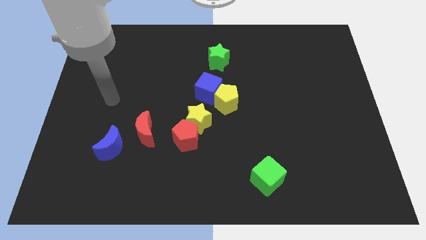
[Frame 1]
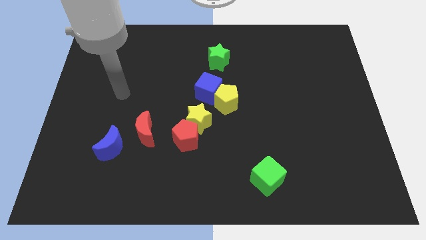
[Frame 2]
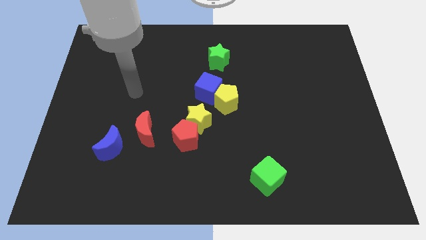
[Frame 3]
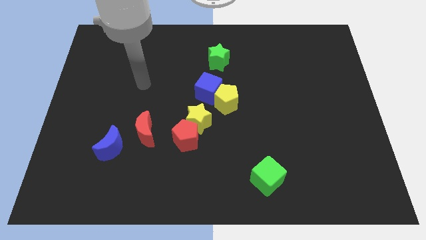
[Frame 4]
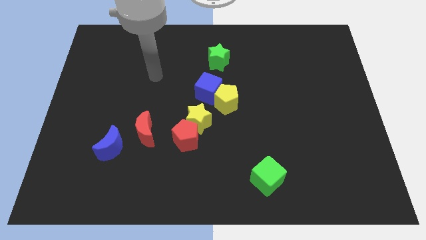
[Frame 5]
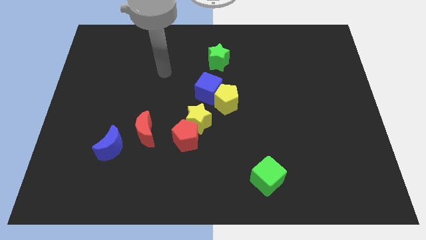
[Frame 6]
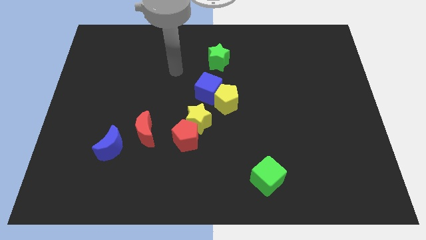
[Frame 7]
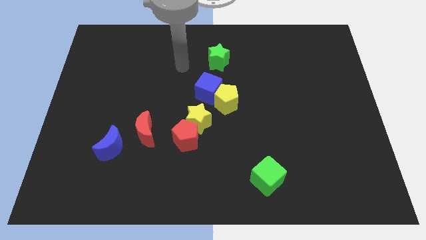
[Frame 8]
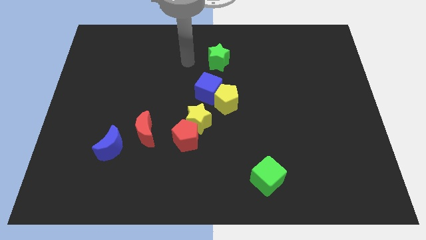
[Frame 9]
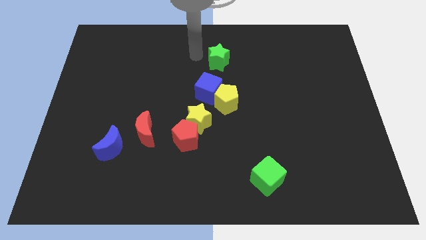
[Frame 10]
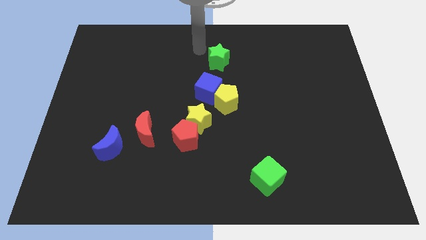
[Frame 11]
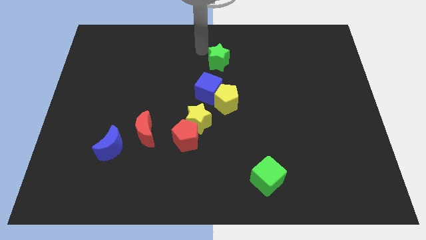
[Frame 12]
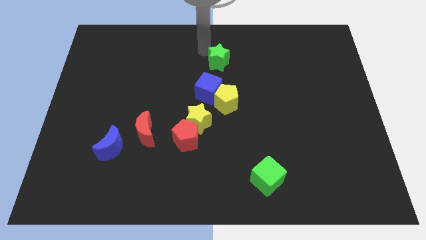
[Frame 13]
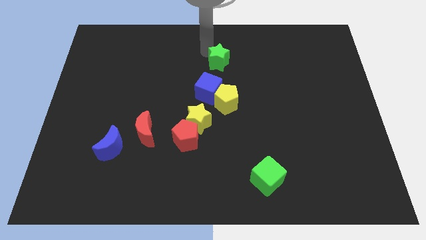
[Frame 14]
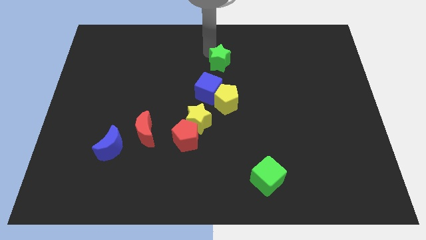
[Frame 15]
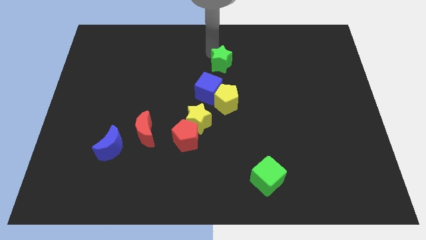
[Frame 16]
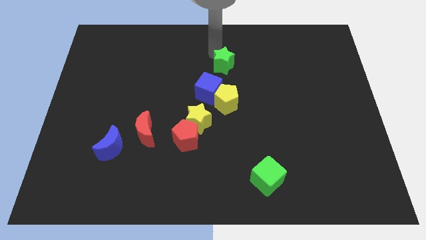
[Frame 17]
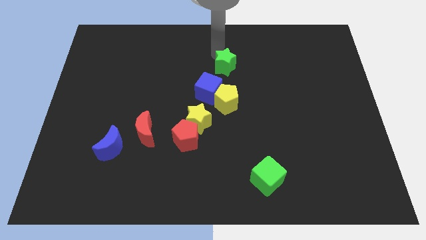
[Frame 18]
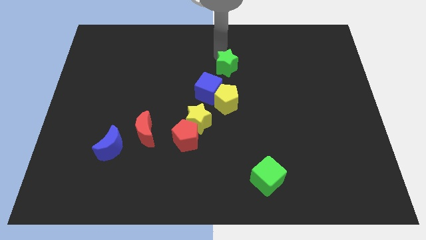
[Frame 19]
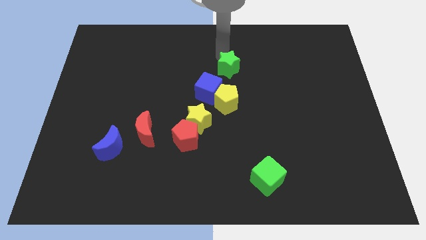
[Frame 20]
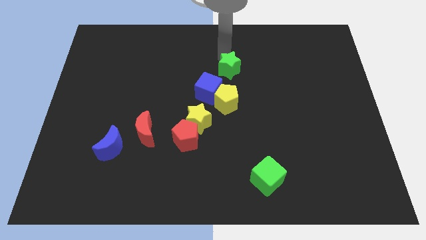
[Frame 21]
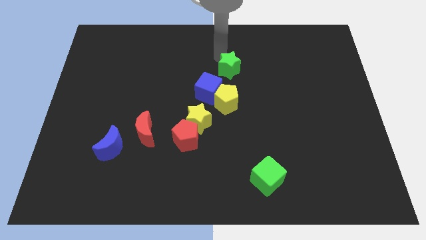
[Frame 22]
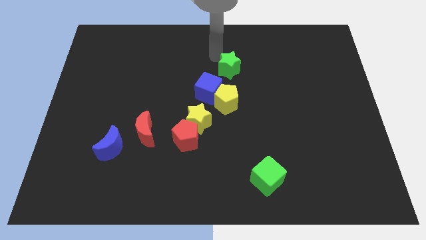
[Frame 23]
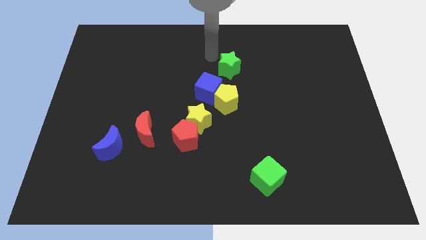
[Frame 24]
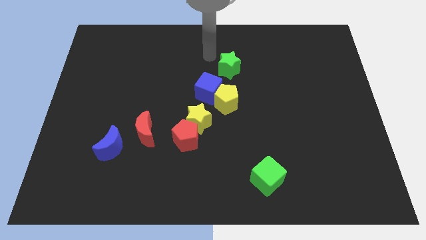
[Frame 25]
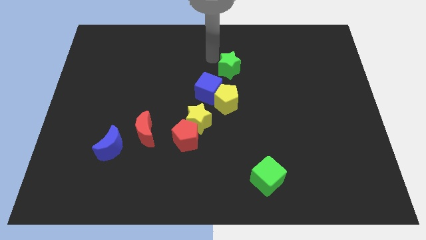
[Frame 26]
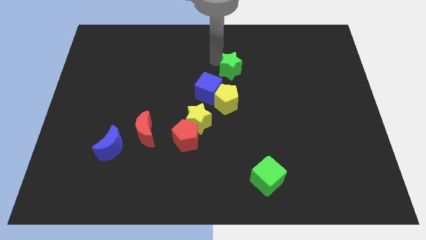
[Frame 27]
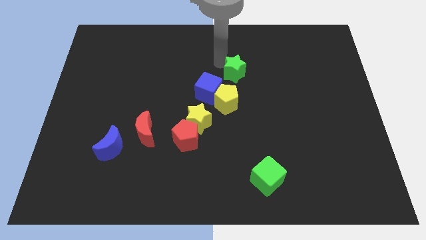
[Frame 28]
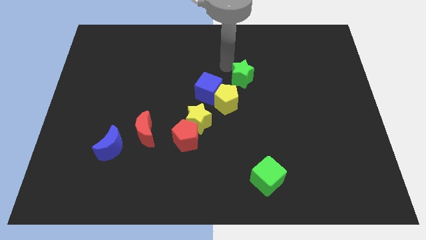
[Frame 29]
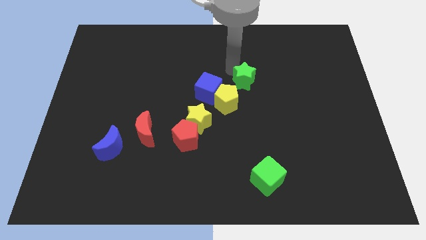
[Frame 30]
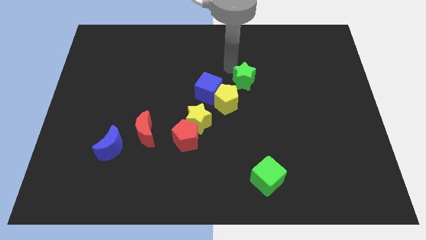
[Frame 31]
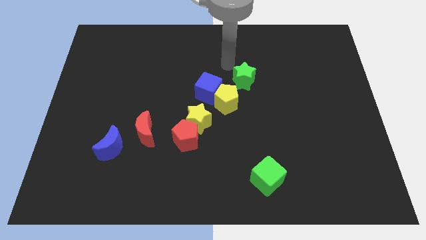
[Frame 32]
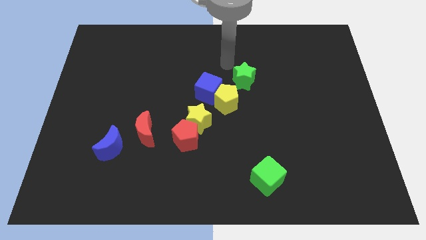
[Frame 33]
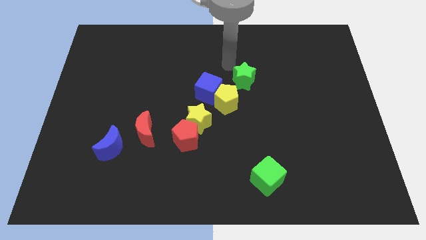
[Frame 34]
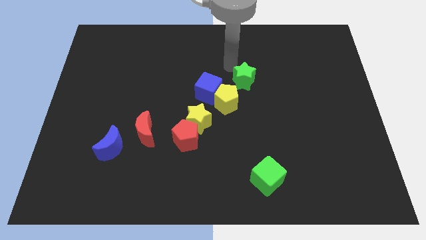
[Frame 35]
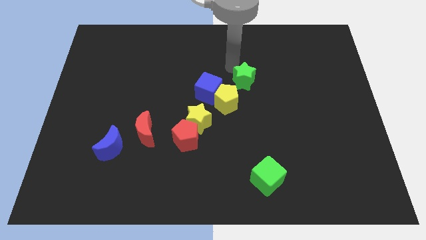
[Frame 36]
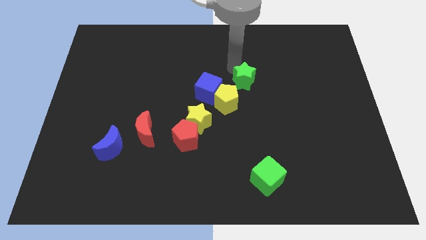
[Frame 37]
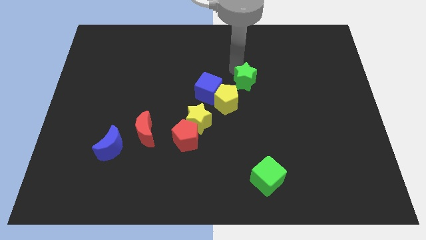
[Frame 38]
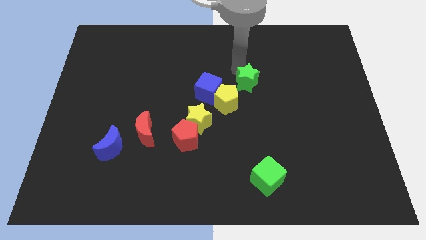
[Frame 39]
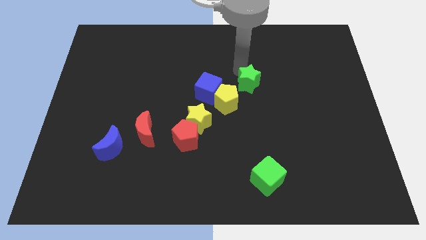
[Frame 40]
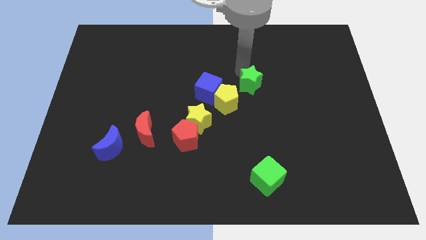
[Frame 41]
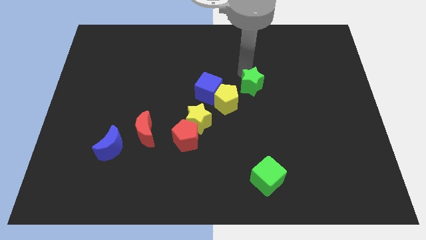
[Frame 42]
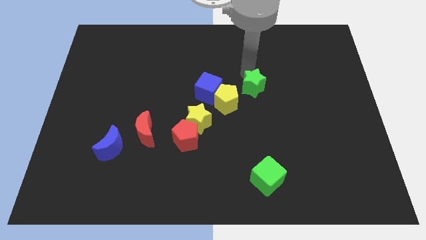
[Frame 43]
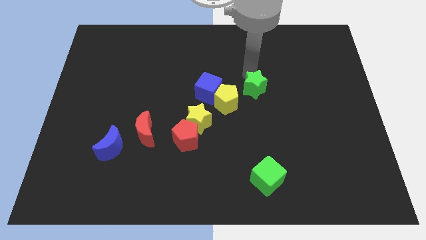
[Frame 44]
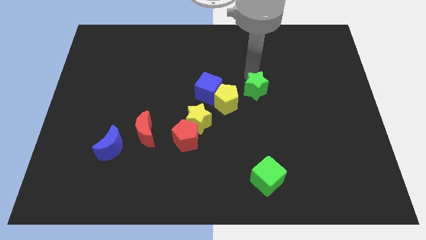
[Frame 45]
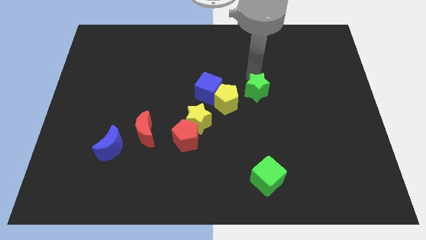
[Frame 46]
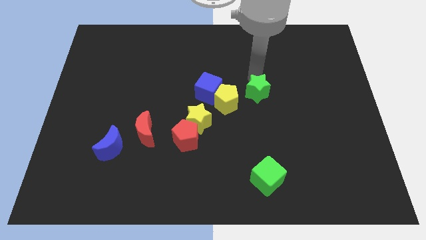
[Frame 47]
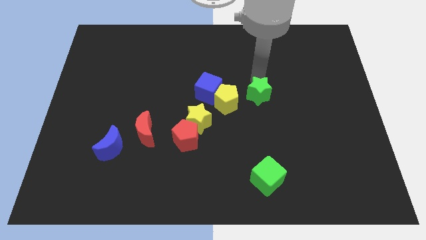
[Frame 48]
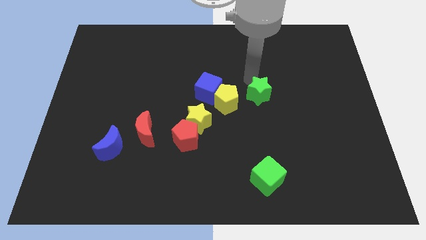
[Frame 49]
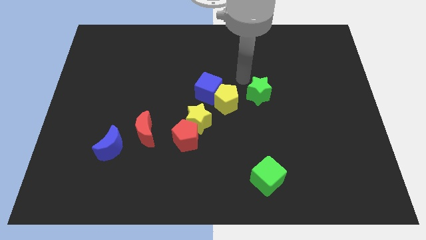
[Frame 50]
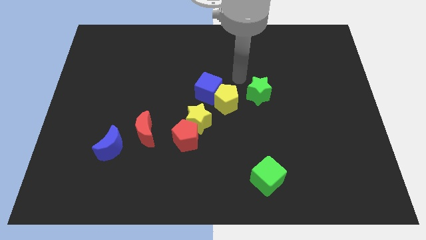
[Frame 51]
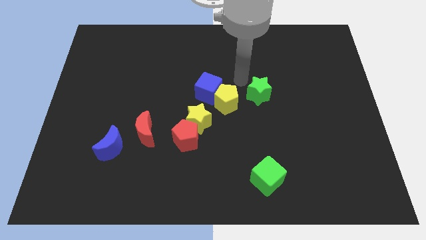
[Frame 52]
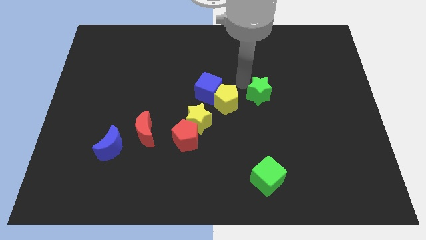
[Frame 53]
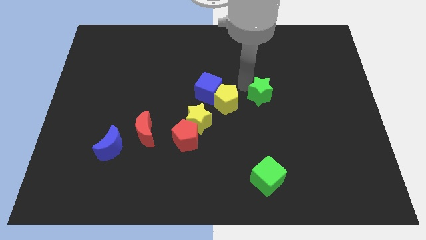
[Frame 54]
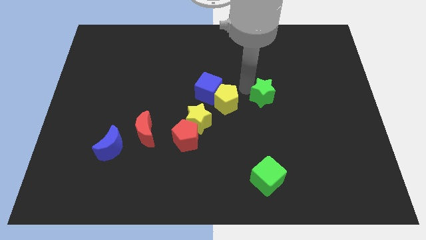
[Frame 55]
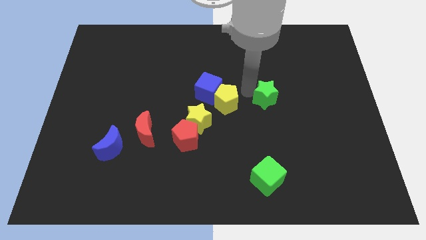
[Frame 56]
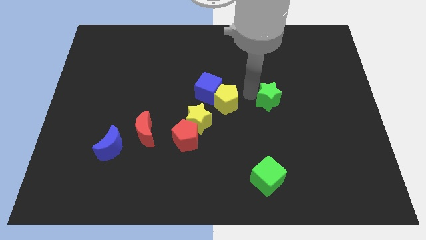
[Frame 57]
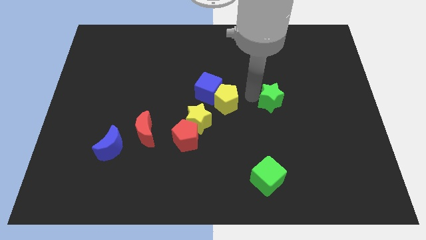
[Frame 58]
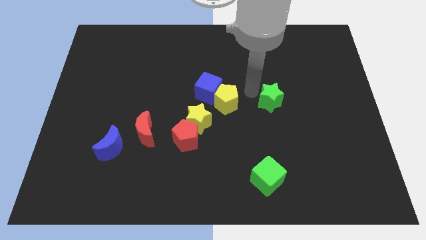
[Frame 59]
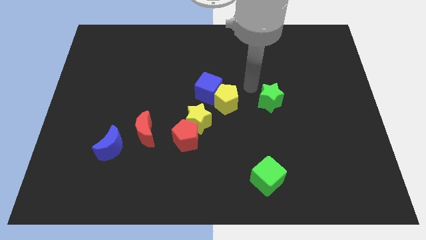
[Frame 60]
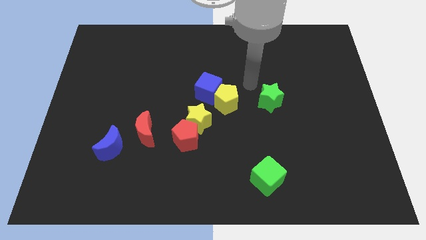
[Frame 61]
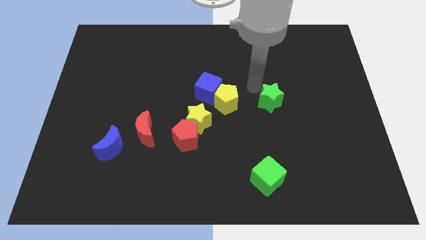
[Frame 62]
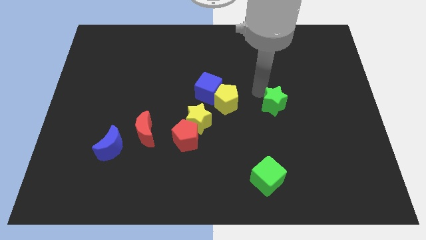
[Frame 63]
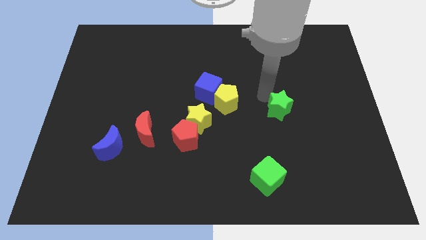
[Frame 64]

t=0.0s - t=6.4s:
slide the green star down and to the right diagonally

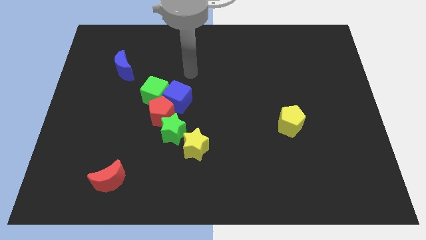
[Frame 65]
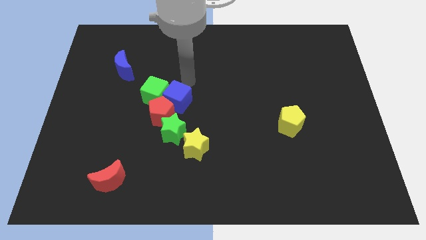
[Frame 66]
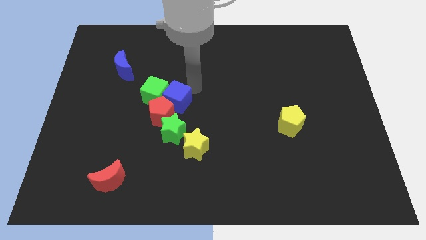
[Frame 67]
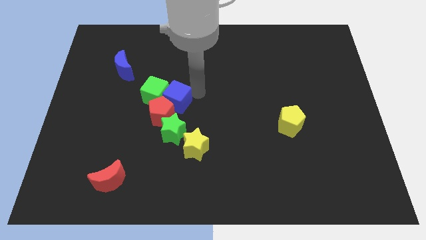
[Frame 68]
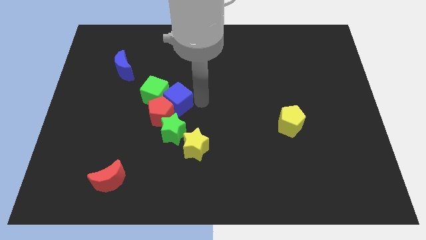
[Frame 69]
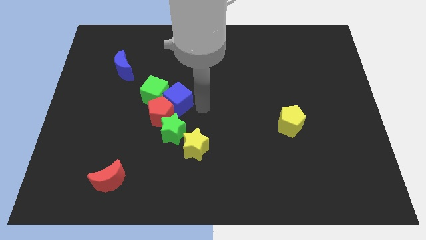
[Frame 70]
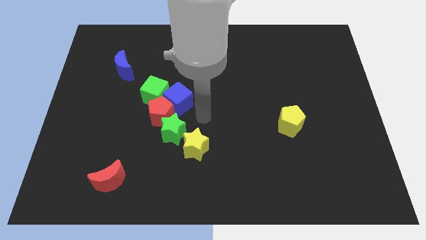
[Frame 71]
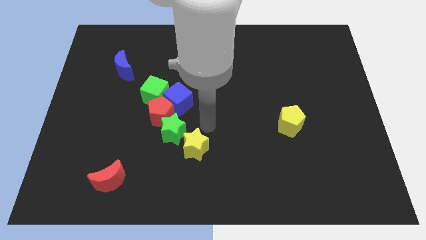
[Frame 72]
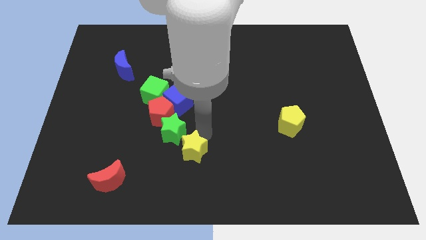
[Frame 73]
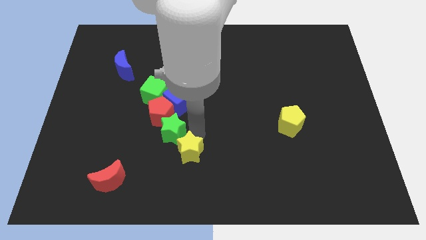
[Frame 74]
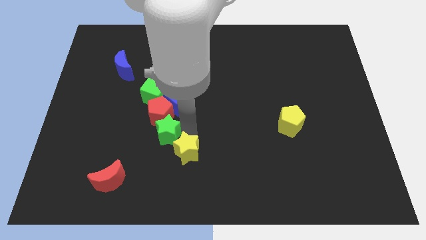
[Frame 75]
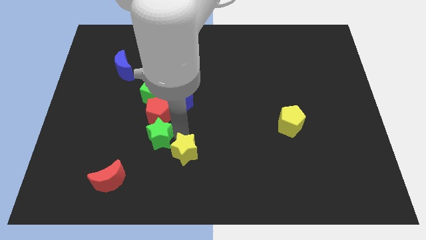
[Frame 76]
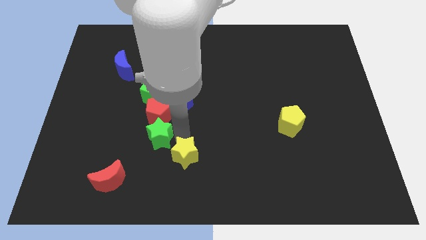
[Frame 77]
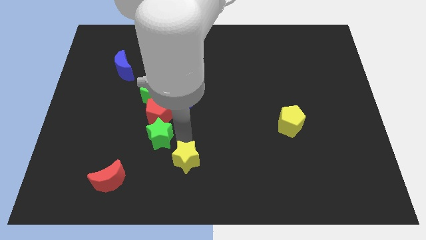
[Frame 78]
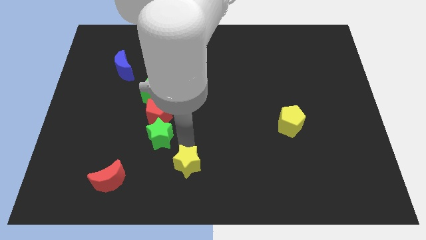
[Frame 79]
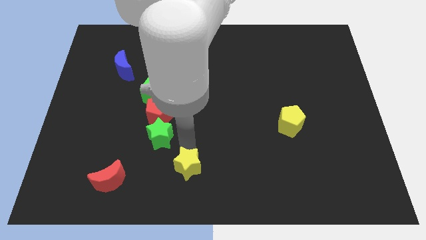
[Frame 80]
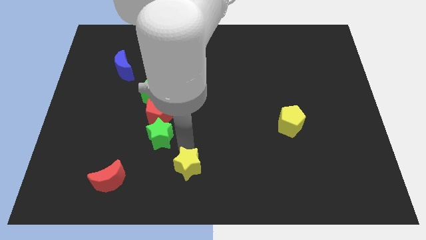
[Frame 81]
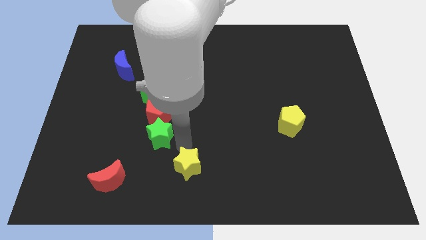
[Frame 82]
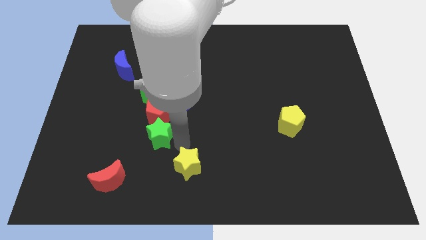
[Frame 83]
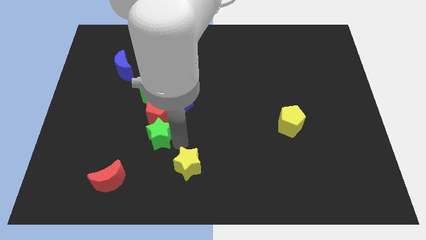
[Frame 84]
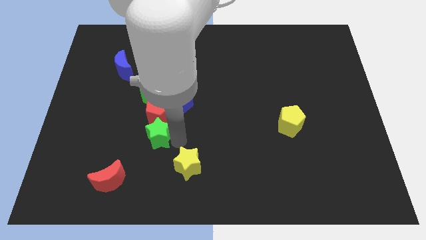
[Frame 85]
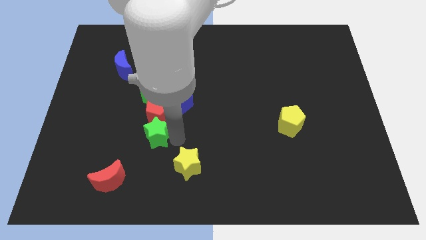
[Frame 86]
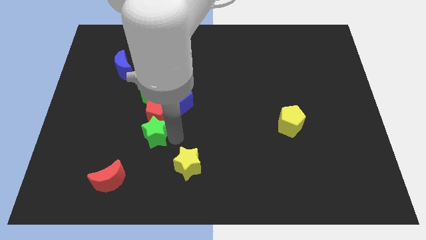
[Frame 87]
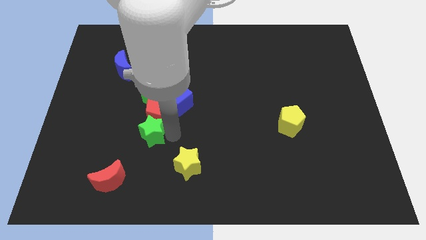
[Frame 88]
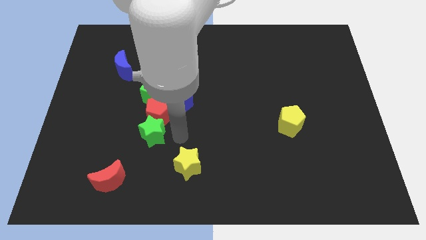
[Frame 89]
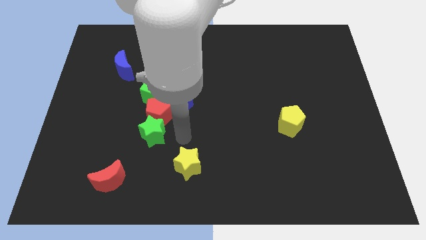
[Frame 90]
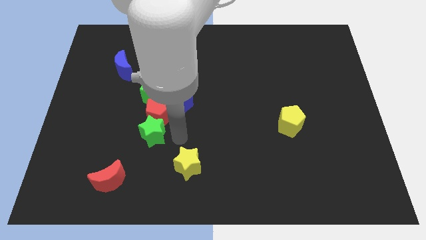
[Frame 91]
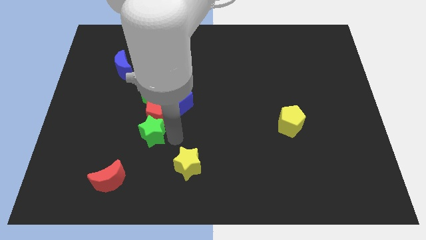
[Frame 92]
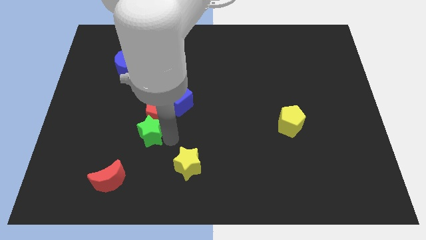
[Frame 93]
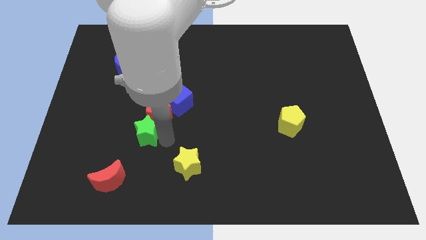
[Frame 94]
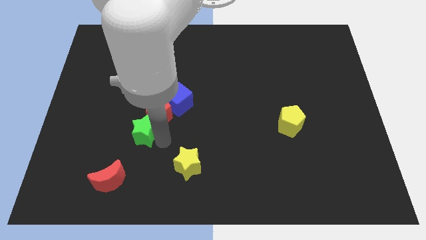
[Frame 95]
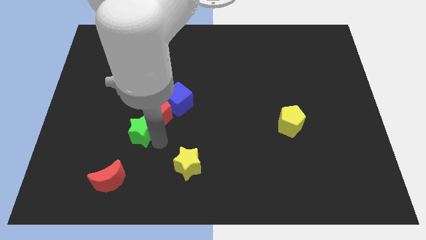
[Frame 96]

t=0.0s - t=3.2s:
push the green star to the left a little bit
